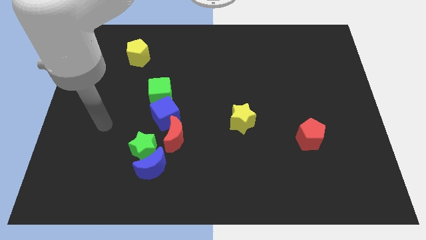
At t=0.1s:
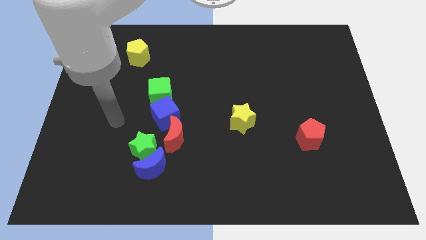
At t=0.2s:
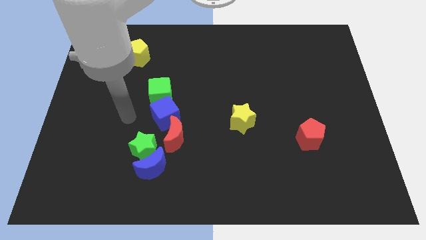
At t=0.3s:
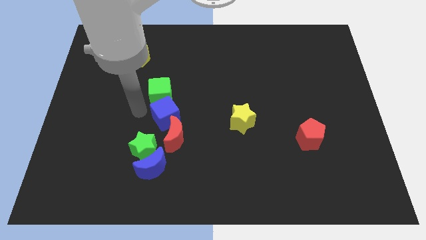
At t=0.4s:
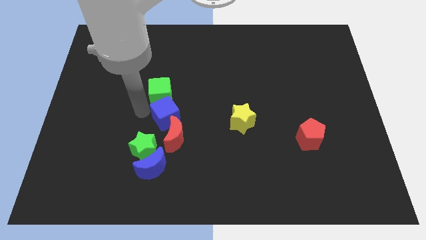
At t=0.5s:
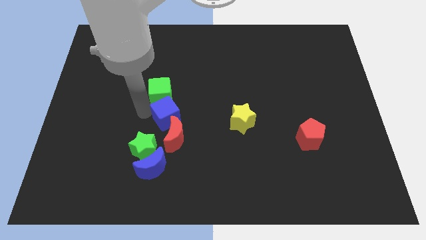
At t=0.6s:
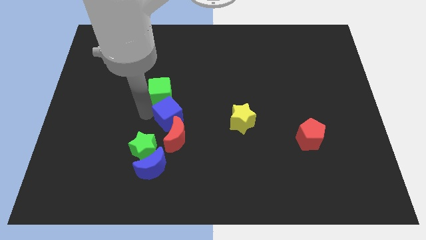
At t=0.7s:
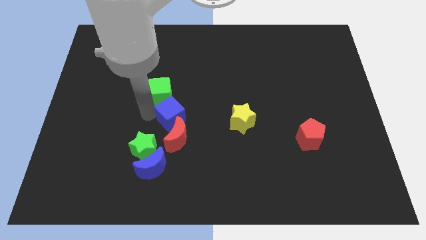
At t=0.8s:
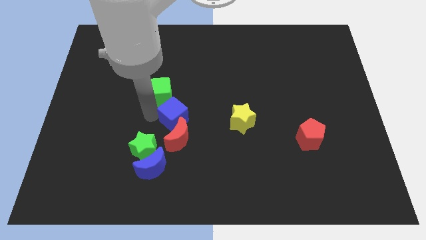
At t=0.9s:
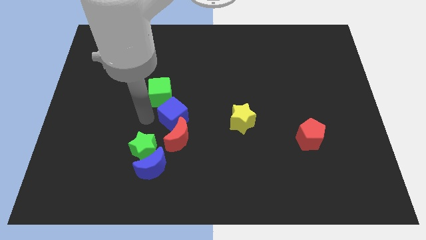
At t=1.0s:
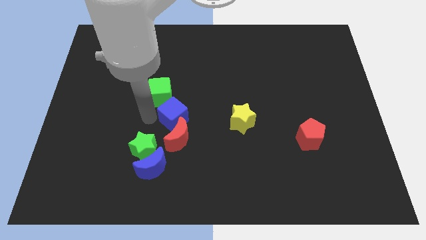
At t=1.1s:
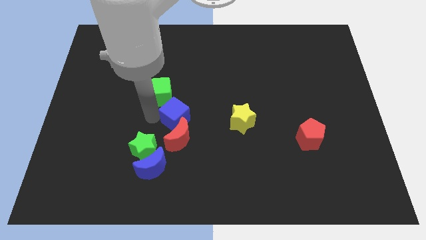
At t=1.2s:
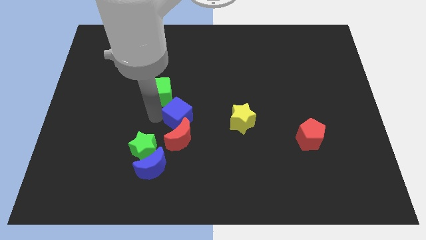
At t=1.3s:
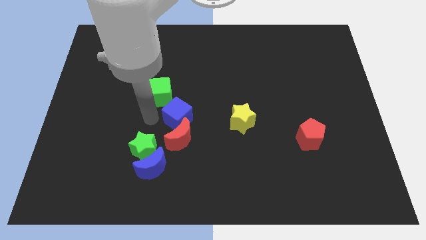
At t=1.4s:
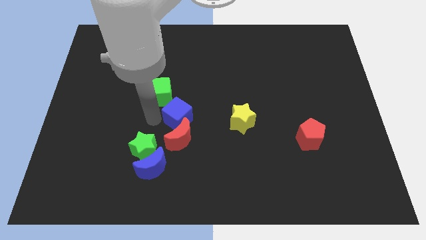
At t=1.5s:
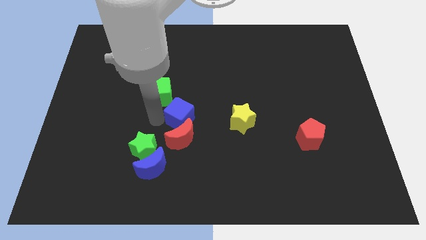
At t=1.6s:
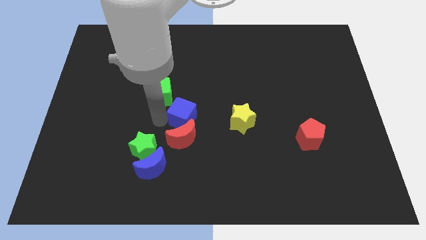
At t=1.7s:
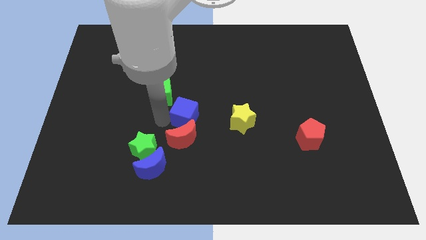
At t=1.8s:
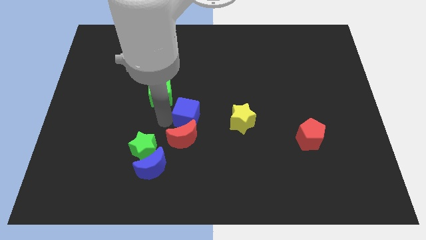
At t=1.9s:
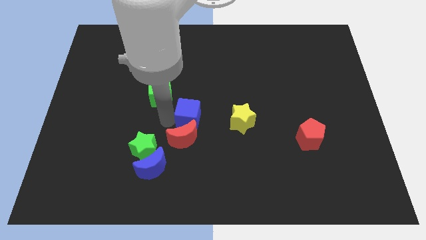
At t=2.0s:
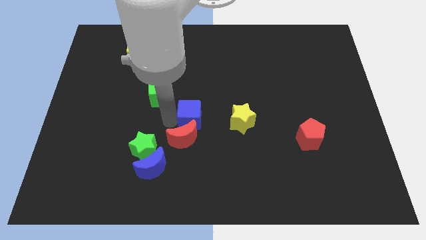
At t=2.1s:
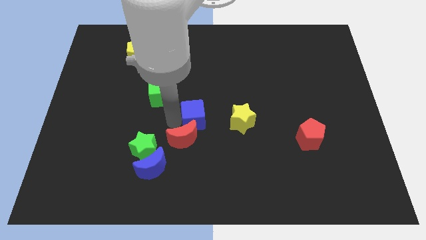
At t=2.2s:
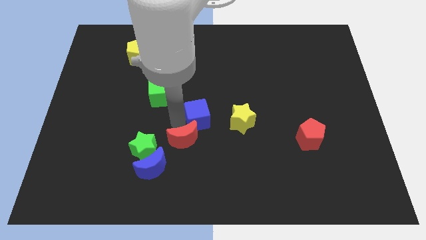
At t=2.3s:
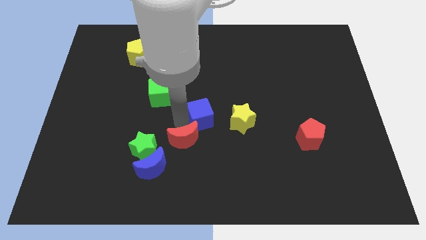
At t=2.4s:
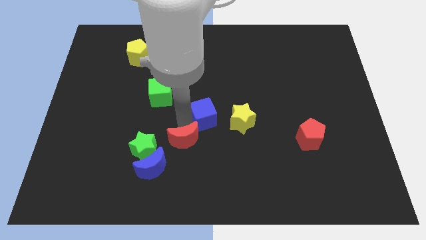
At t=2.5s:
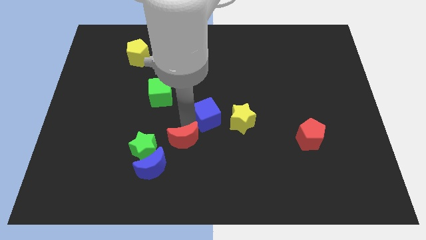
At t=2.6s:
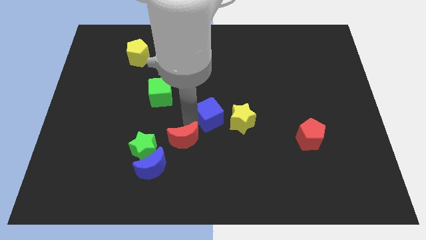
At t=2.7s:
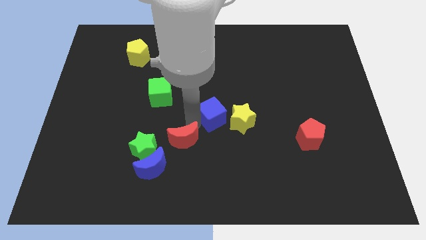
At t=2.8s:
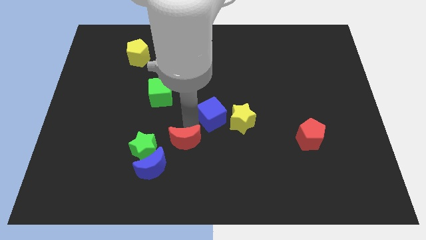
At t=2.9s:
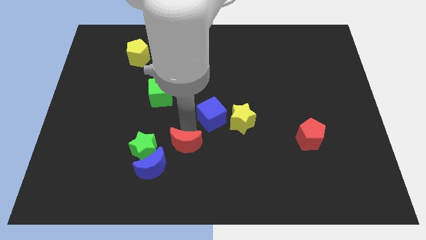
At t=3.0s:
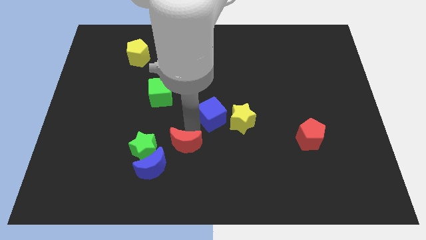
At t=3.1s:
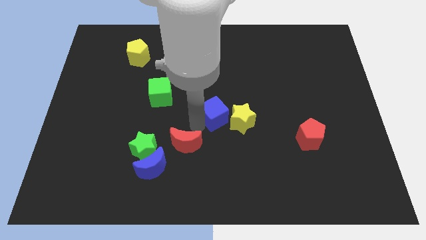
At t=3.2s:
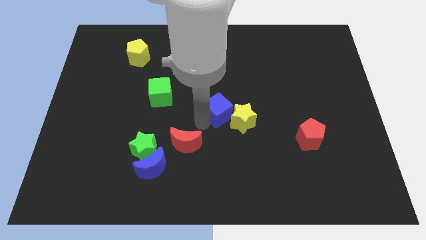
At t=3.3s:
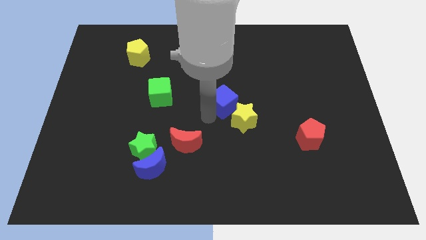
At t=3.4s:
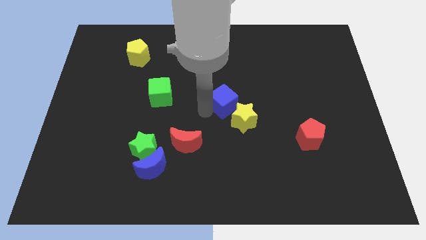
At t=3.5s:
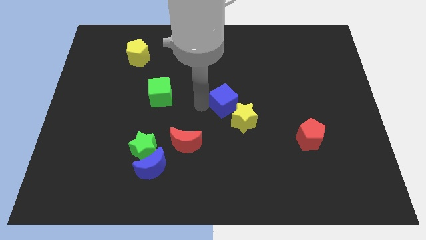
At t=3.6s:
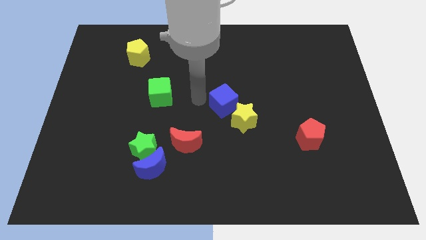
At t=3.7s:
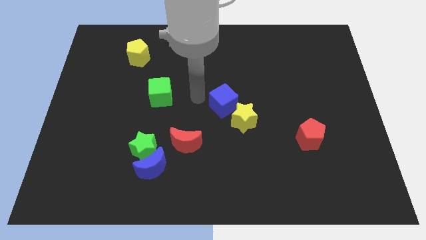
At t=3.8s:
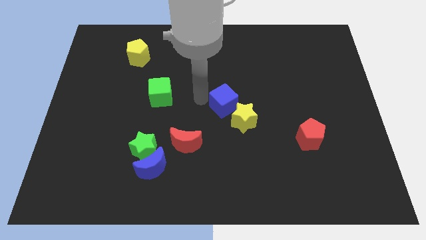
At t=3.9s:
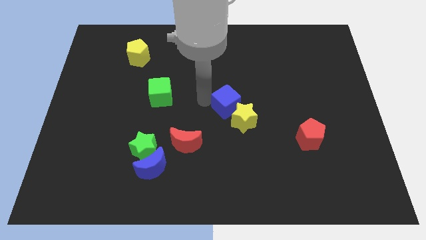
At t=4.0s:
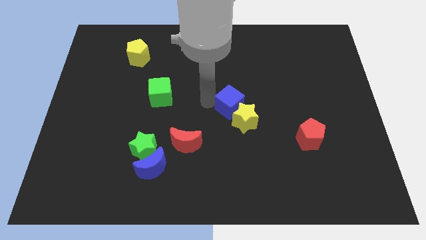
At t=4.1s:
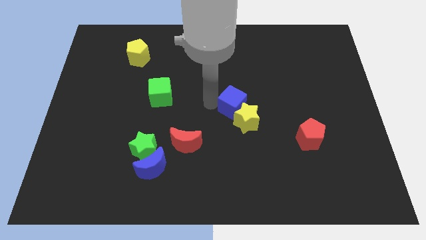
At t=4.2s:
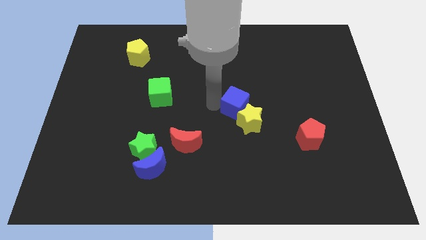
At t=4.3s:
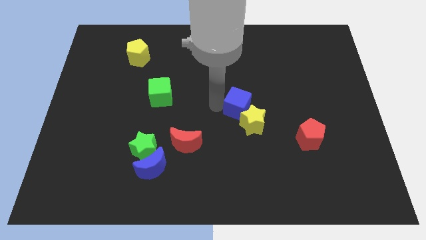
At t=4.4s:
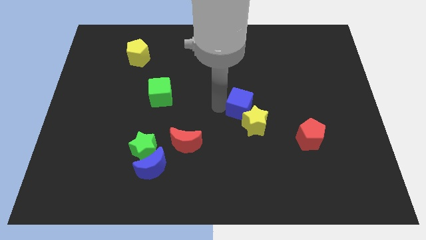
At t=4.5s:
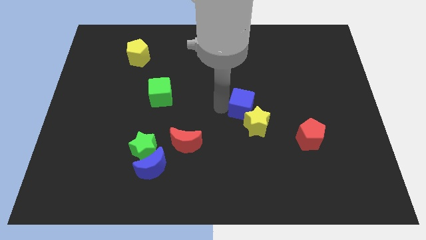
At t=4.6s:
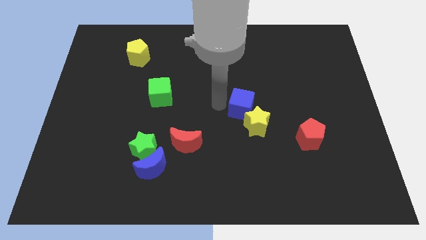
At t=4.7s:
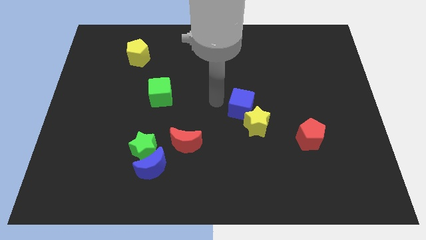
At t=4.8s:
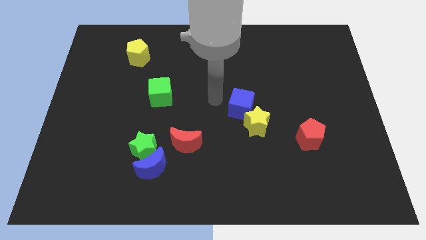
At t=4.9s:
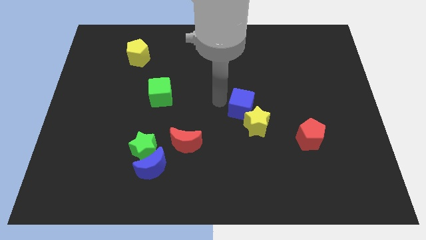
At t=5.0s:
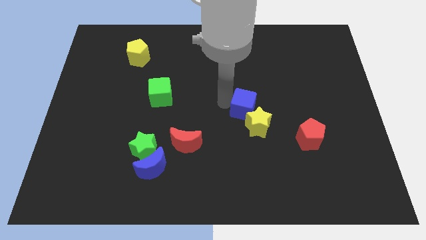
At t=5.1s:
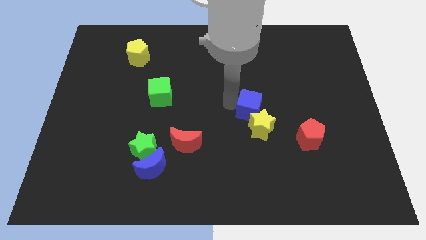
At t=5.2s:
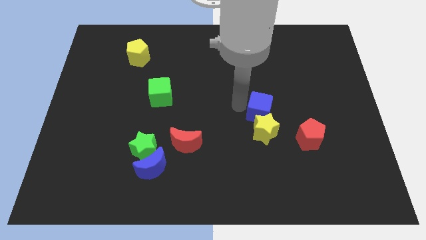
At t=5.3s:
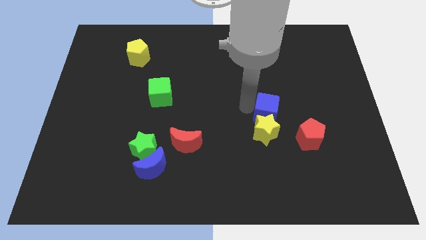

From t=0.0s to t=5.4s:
push the blue cube to the top left of the red pentagon

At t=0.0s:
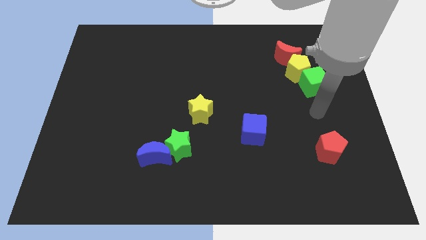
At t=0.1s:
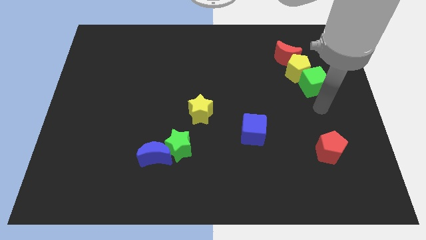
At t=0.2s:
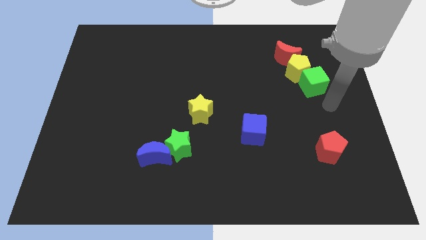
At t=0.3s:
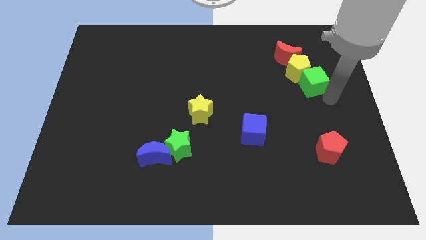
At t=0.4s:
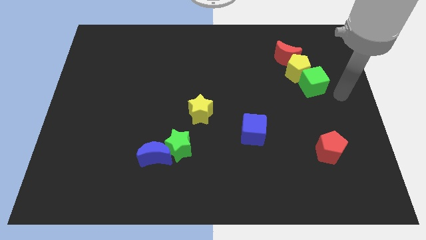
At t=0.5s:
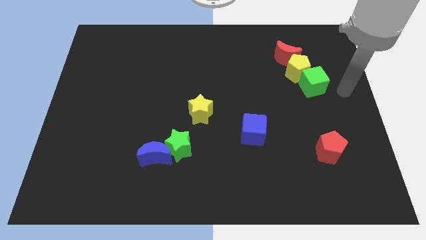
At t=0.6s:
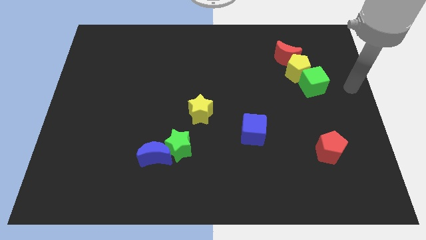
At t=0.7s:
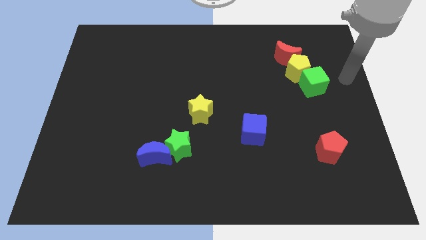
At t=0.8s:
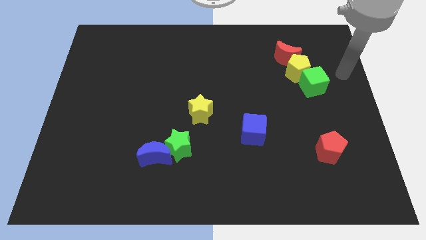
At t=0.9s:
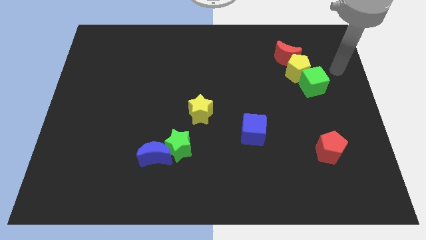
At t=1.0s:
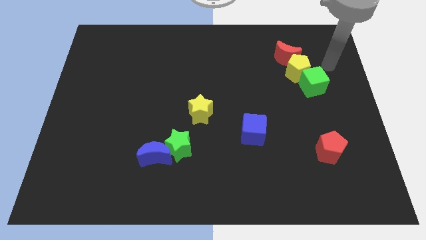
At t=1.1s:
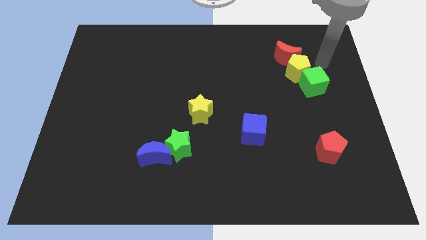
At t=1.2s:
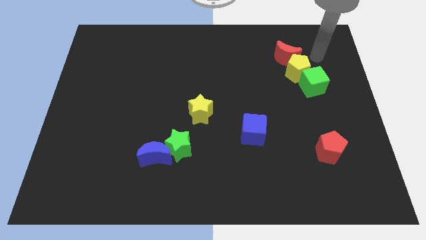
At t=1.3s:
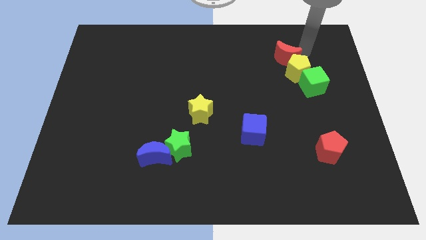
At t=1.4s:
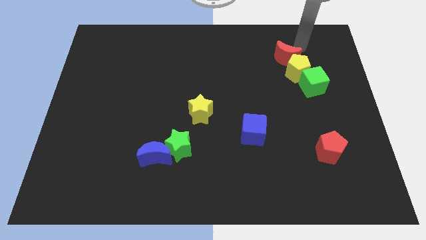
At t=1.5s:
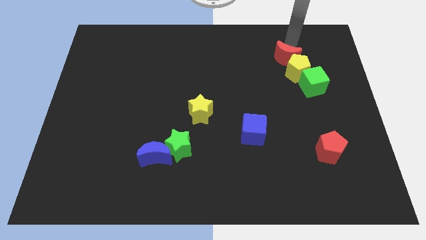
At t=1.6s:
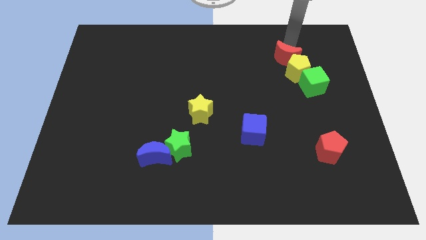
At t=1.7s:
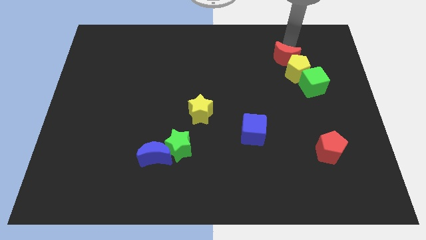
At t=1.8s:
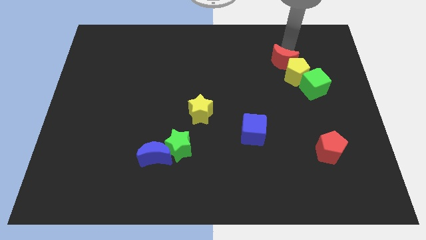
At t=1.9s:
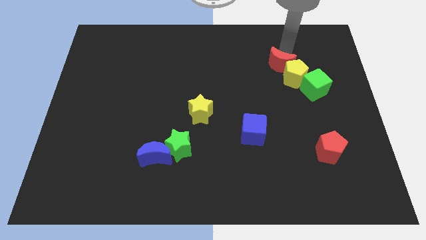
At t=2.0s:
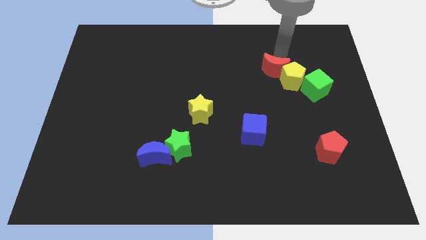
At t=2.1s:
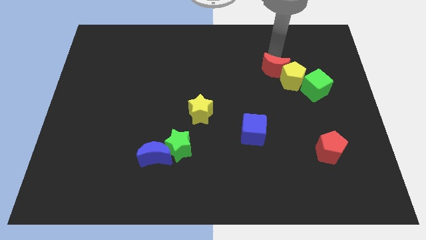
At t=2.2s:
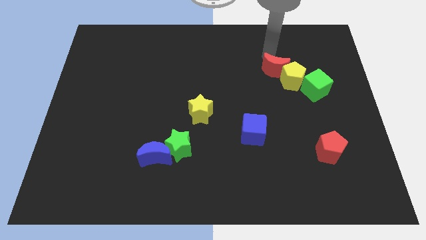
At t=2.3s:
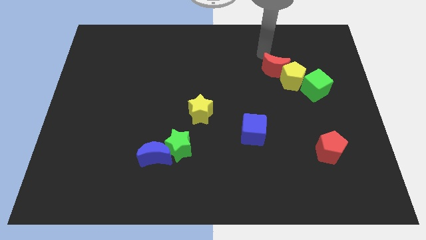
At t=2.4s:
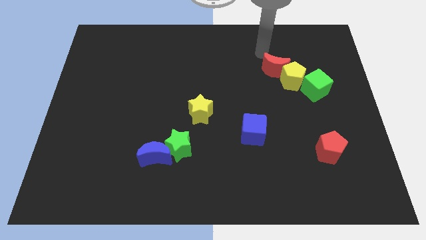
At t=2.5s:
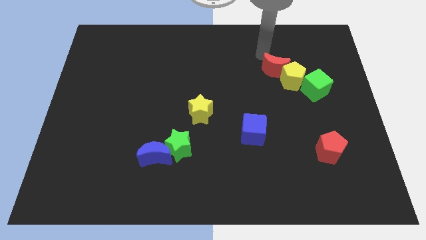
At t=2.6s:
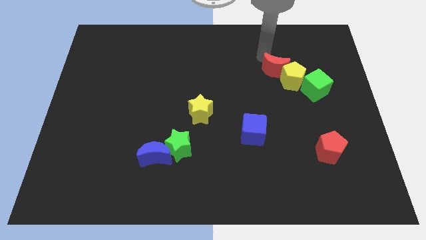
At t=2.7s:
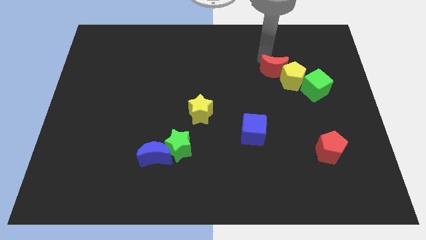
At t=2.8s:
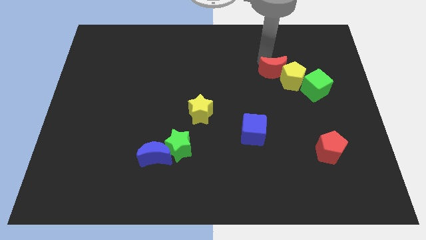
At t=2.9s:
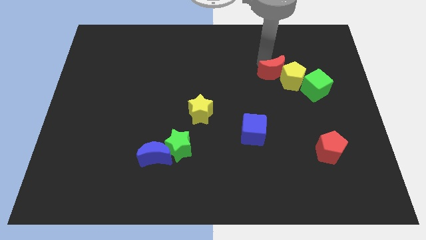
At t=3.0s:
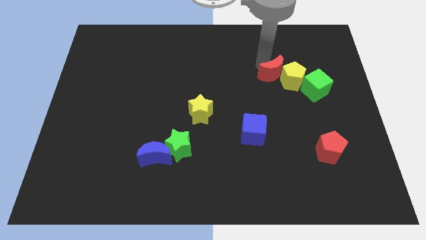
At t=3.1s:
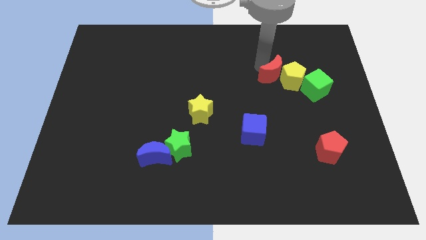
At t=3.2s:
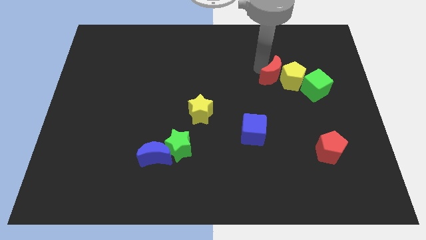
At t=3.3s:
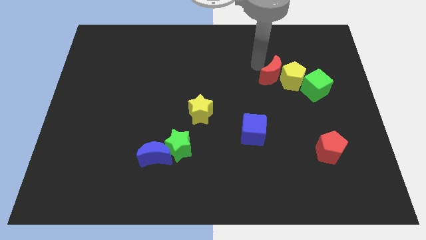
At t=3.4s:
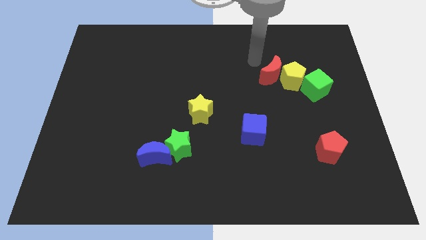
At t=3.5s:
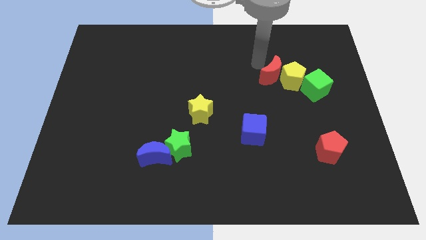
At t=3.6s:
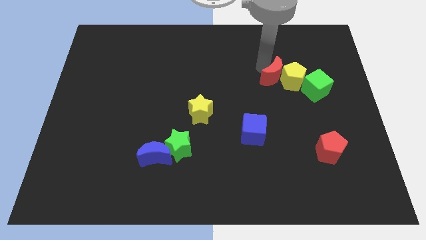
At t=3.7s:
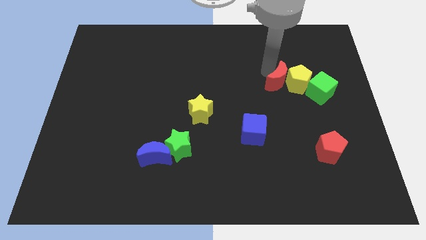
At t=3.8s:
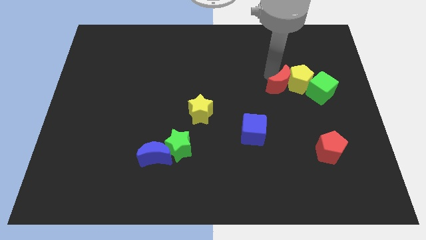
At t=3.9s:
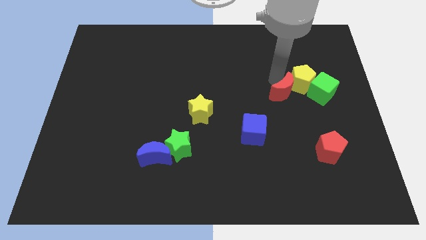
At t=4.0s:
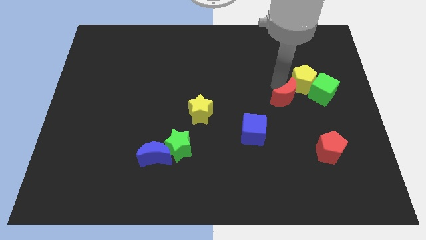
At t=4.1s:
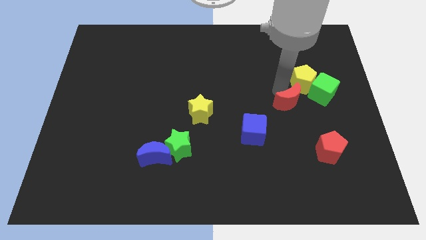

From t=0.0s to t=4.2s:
move the red moon to the bottom left of the green cube
